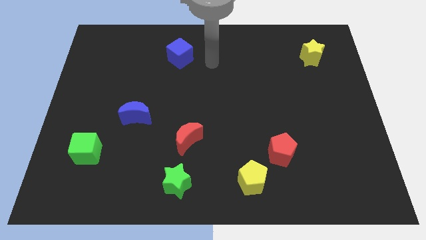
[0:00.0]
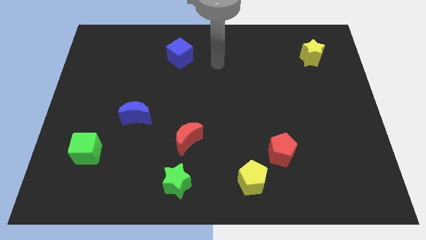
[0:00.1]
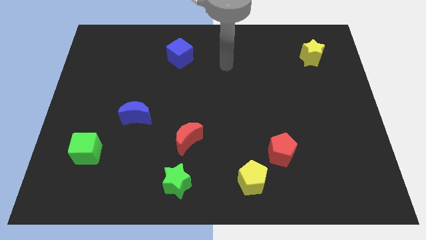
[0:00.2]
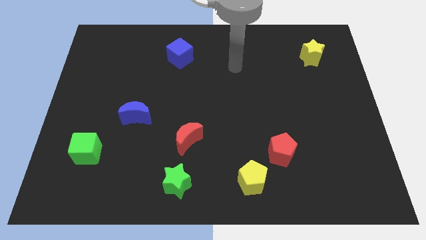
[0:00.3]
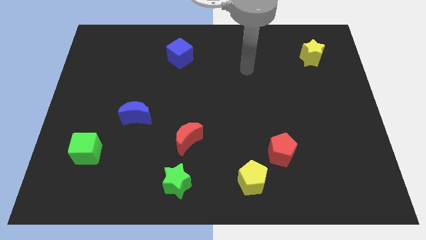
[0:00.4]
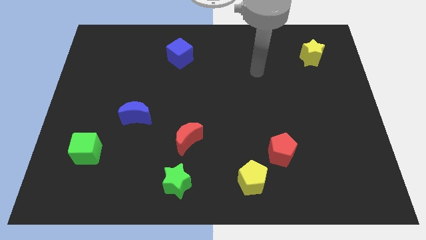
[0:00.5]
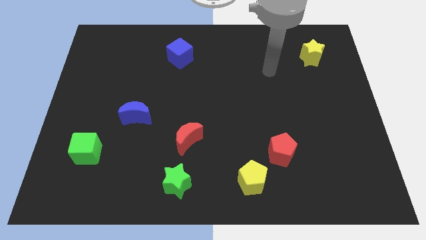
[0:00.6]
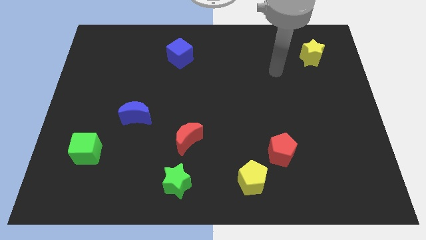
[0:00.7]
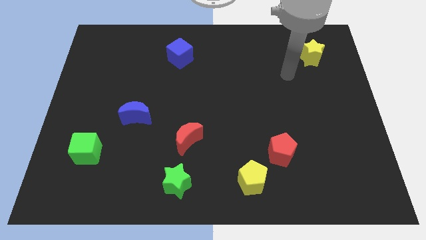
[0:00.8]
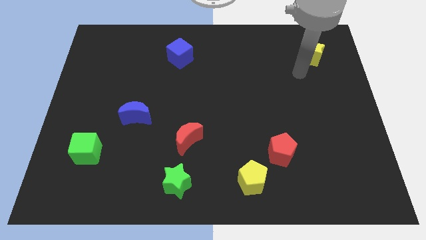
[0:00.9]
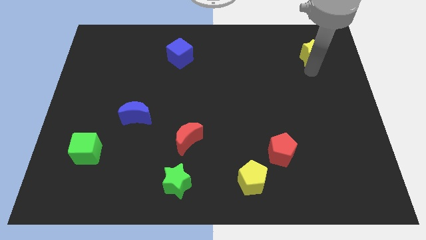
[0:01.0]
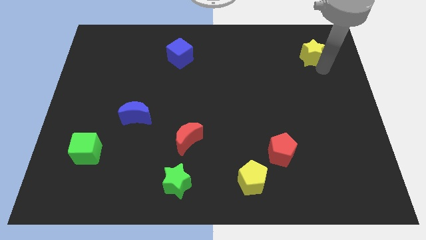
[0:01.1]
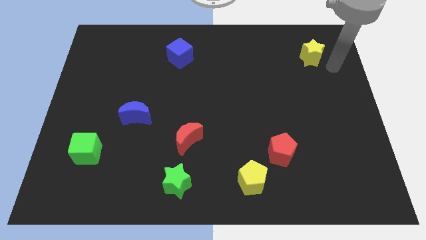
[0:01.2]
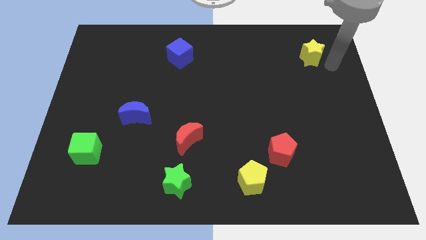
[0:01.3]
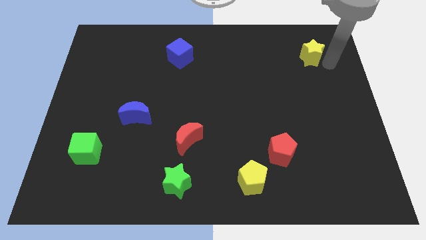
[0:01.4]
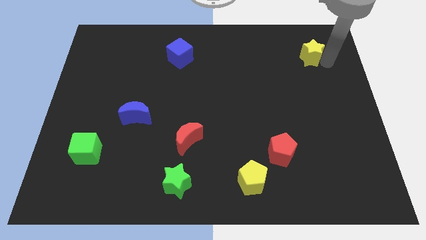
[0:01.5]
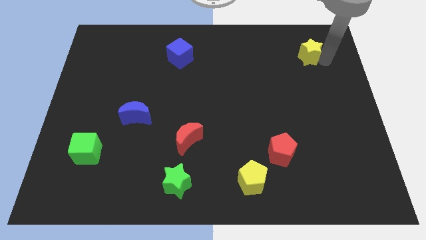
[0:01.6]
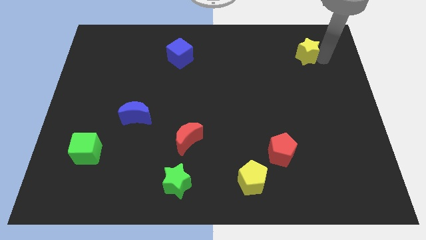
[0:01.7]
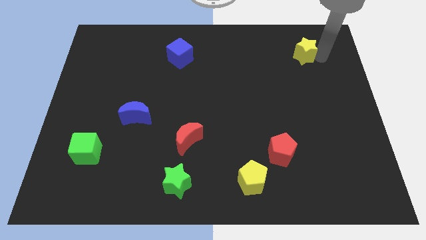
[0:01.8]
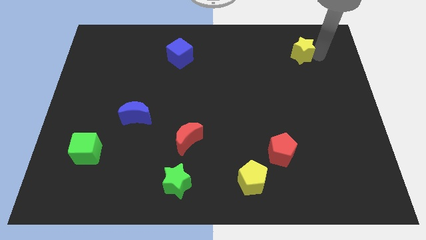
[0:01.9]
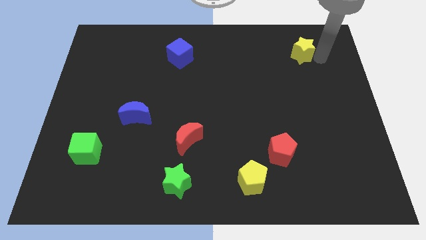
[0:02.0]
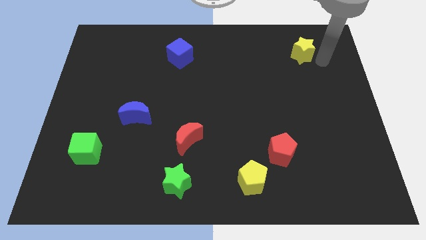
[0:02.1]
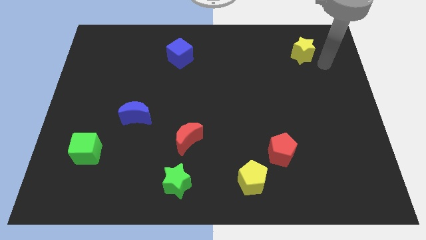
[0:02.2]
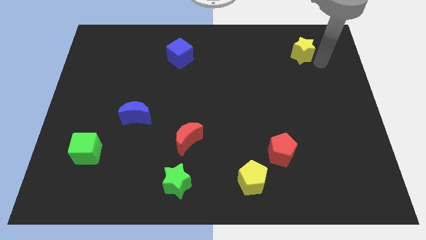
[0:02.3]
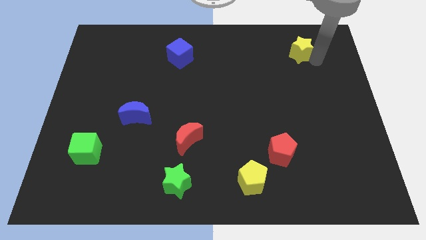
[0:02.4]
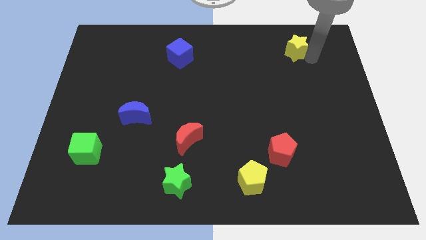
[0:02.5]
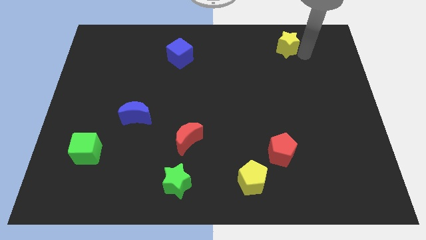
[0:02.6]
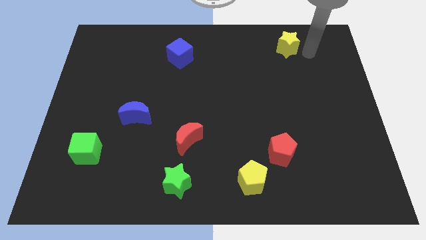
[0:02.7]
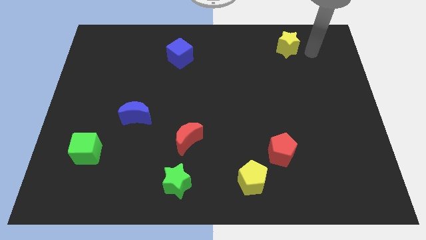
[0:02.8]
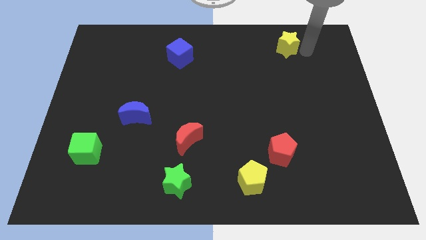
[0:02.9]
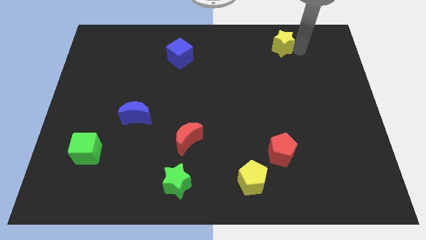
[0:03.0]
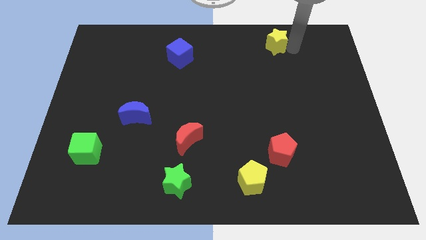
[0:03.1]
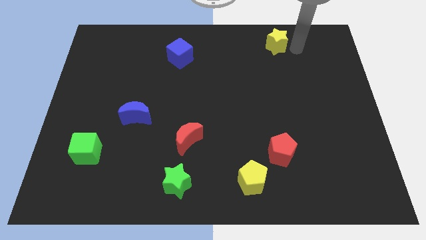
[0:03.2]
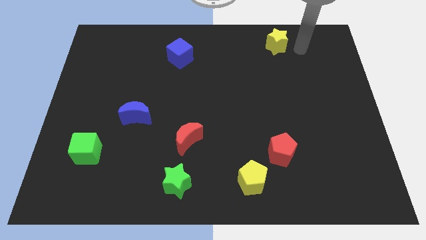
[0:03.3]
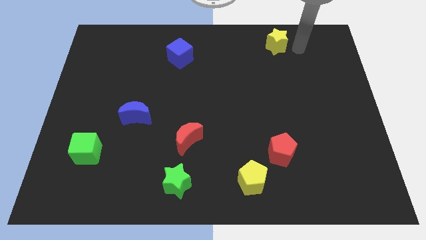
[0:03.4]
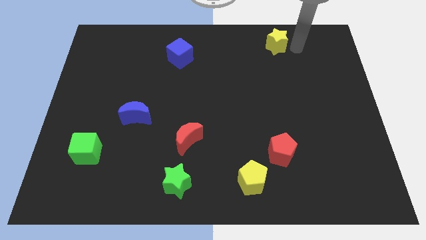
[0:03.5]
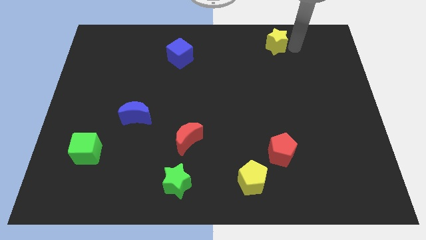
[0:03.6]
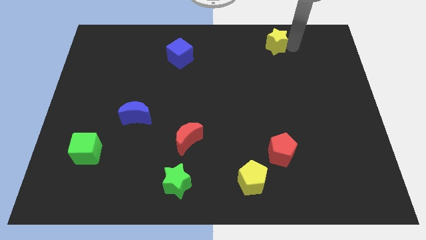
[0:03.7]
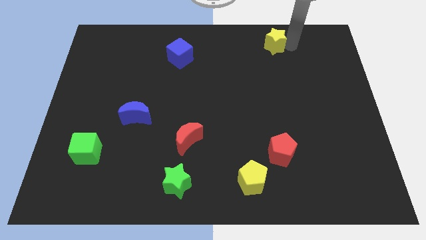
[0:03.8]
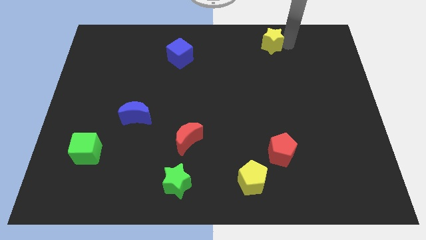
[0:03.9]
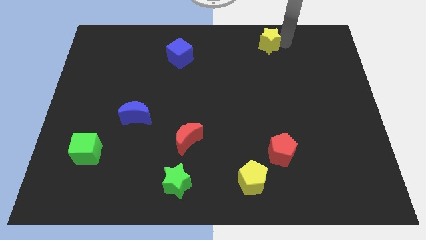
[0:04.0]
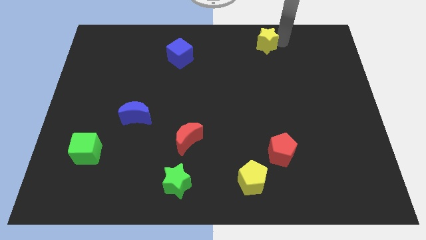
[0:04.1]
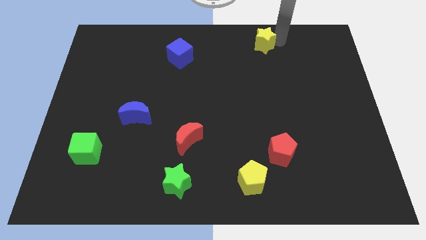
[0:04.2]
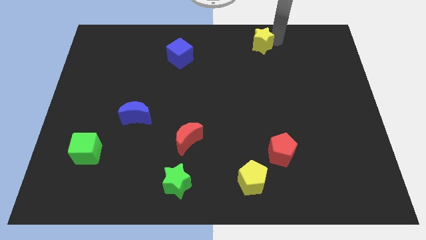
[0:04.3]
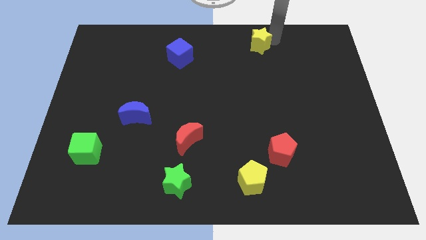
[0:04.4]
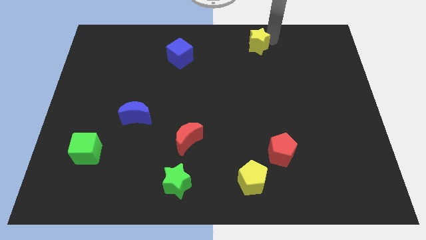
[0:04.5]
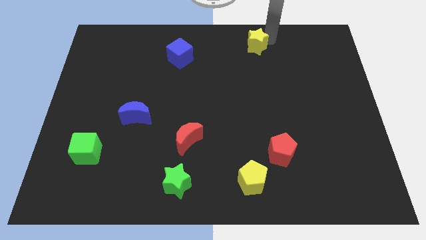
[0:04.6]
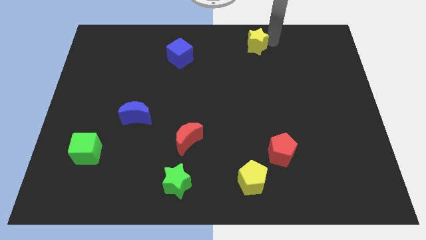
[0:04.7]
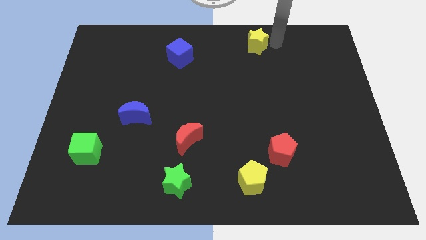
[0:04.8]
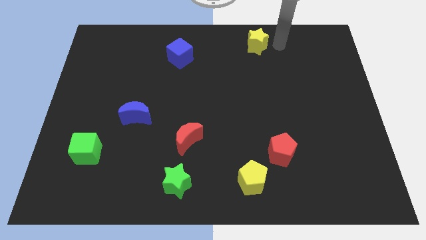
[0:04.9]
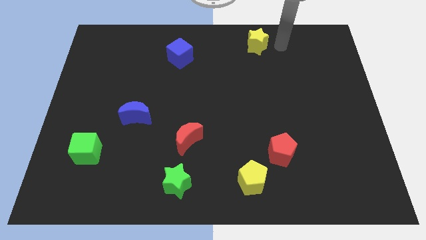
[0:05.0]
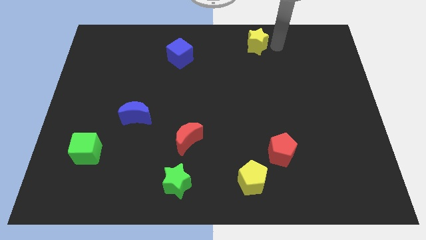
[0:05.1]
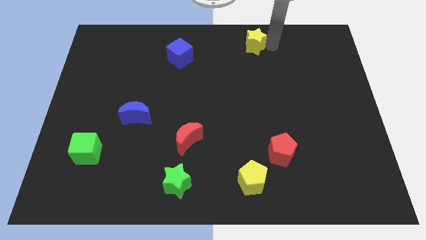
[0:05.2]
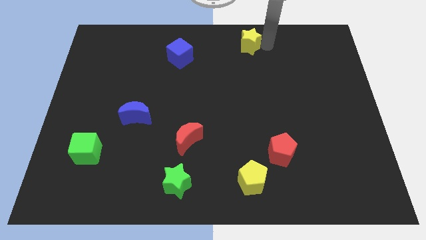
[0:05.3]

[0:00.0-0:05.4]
move the yellow star to the top

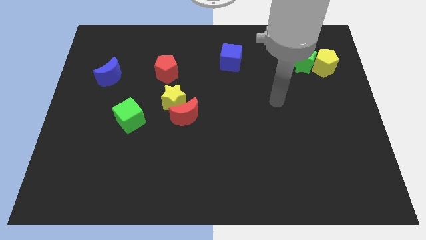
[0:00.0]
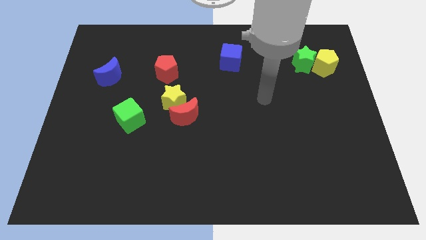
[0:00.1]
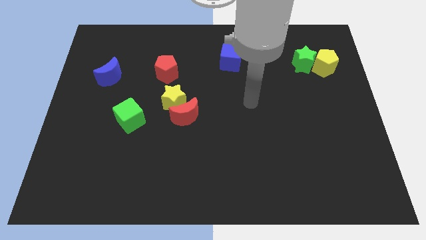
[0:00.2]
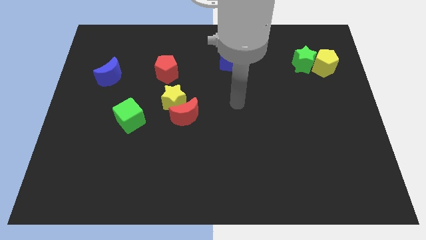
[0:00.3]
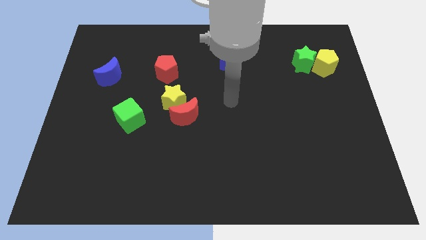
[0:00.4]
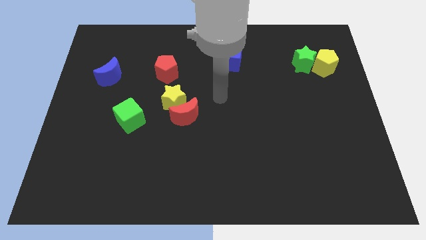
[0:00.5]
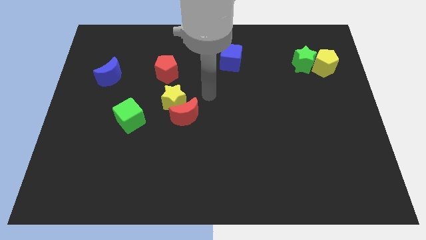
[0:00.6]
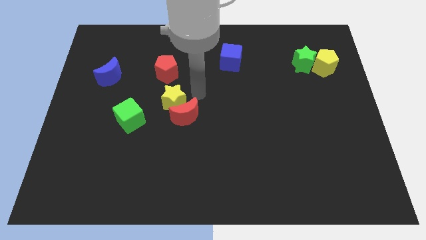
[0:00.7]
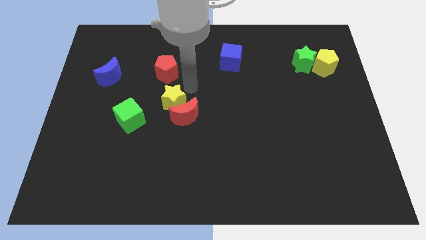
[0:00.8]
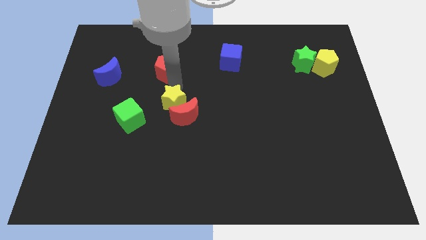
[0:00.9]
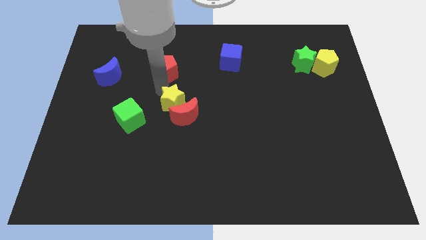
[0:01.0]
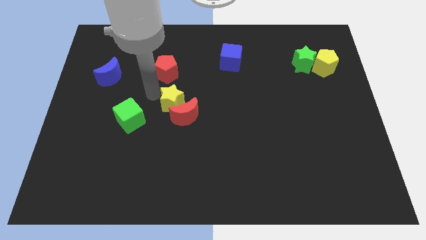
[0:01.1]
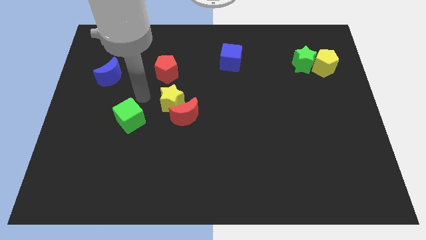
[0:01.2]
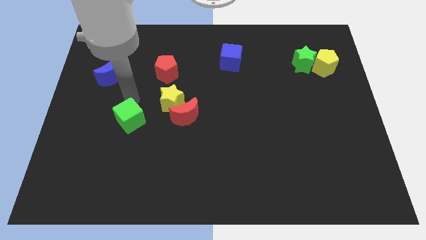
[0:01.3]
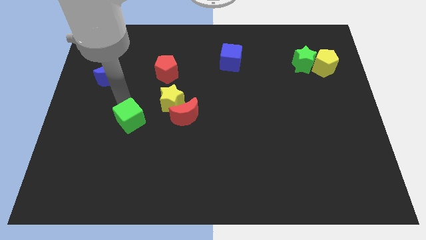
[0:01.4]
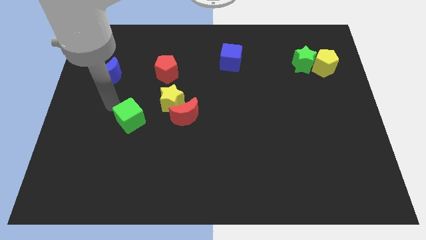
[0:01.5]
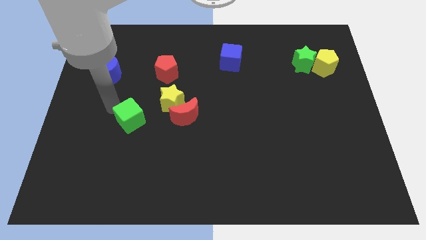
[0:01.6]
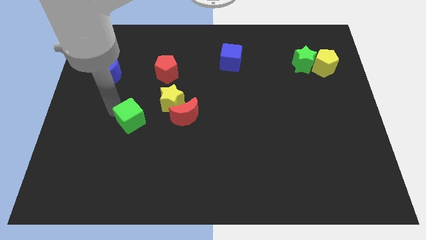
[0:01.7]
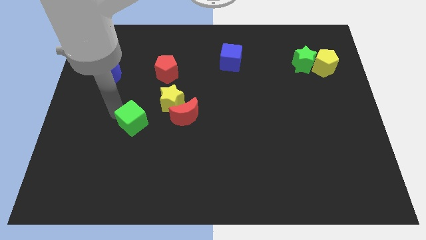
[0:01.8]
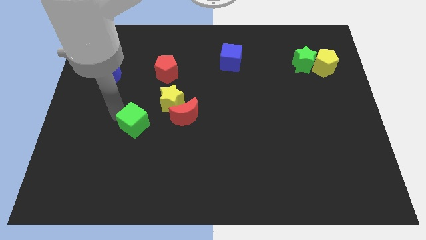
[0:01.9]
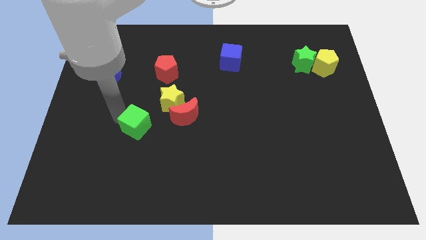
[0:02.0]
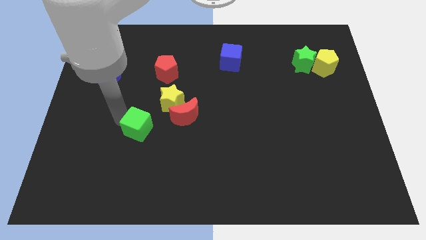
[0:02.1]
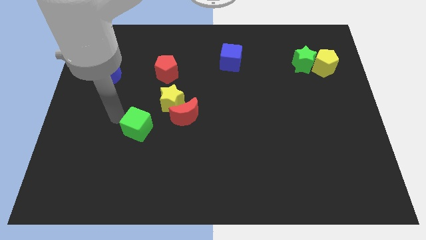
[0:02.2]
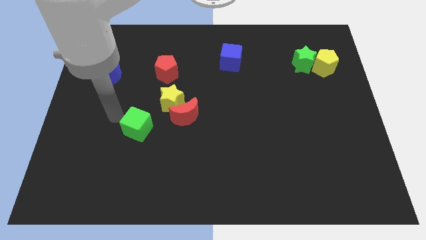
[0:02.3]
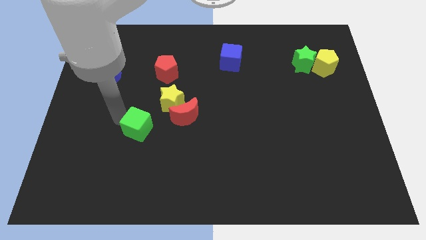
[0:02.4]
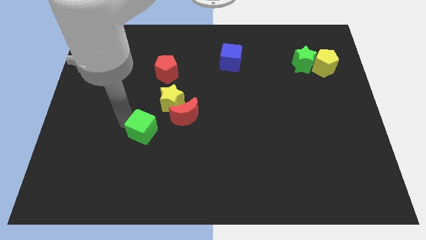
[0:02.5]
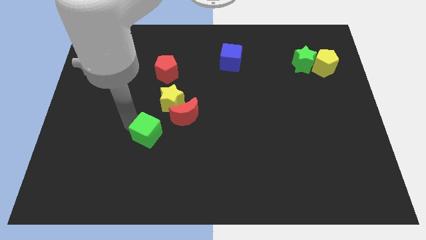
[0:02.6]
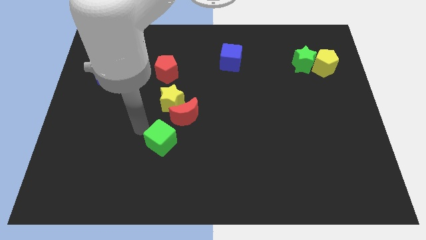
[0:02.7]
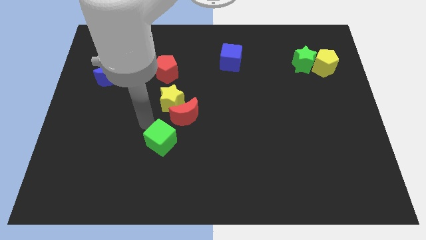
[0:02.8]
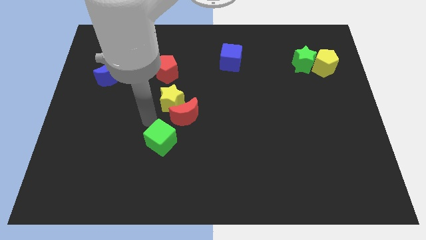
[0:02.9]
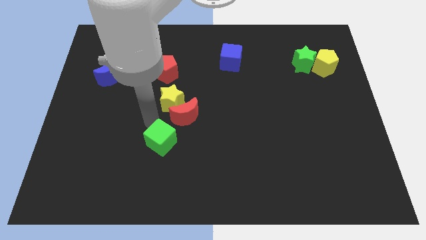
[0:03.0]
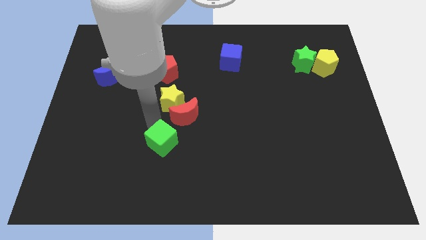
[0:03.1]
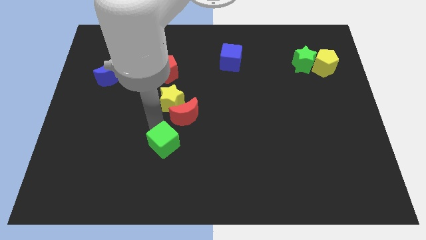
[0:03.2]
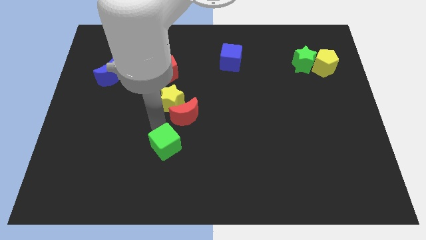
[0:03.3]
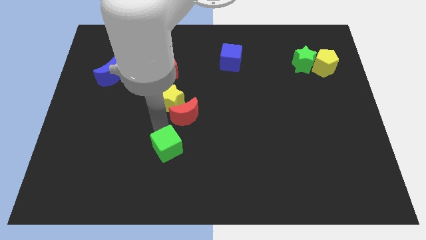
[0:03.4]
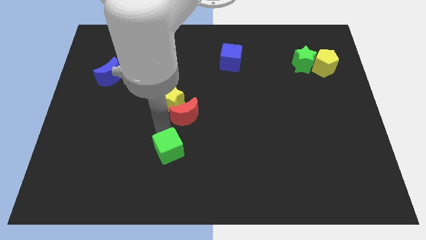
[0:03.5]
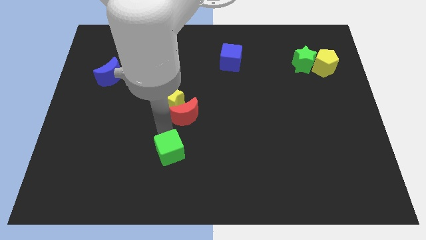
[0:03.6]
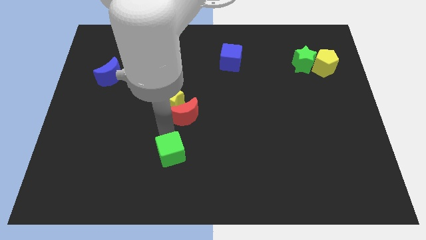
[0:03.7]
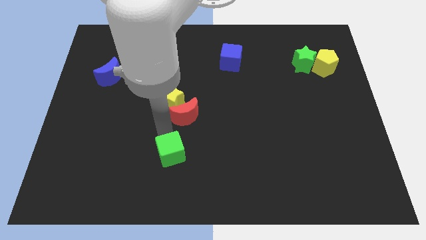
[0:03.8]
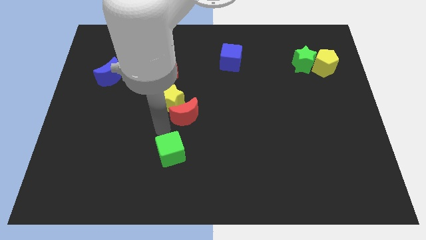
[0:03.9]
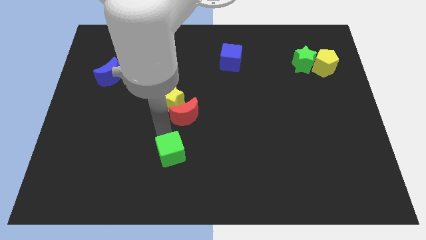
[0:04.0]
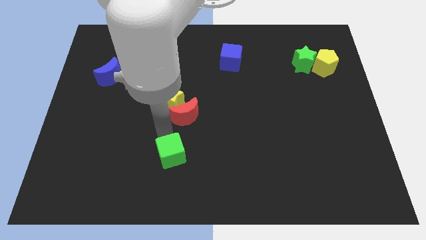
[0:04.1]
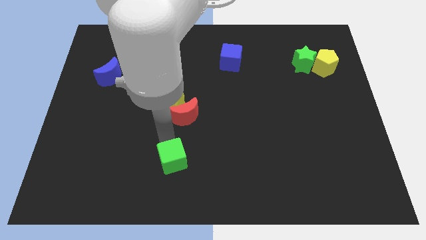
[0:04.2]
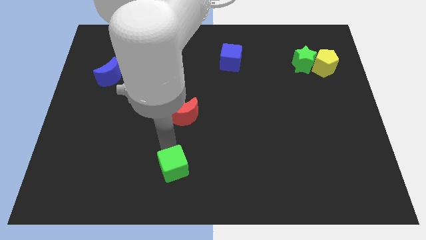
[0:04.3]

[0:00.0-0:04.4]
push the green cube to the bottom
